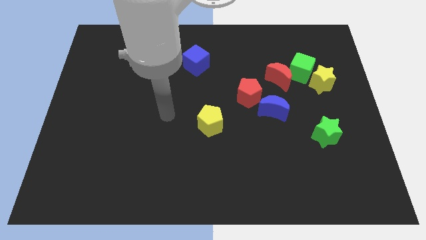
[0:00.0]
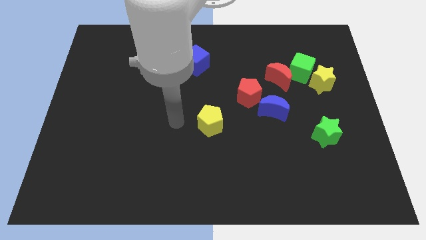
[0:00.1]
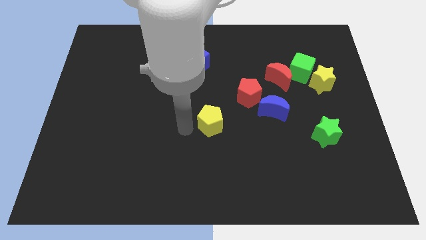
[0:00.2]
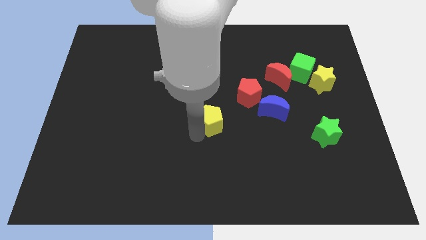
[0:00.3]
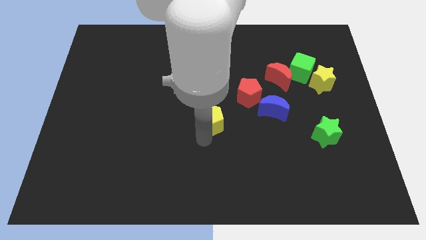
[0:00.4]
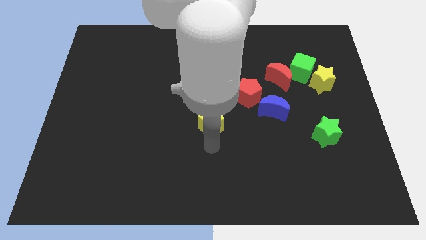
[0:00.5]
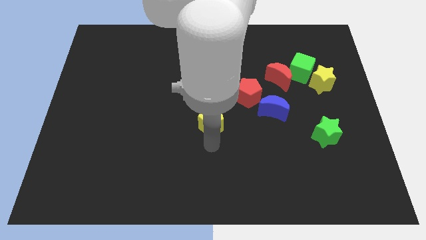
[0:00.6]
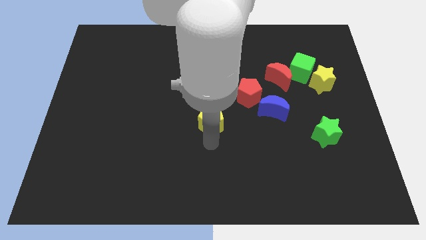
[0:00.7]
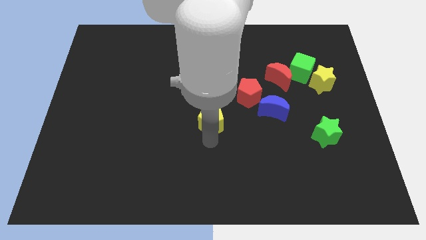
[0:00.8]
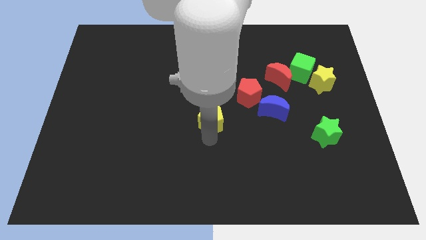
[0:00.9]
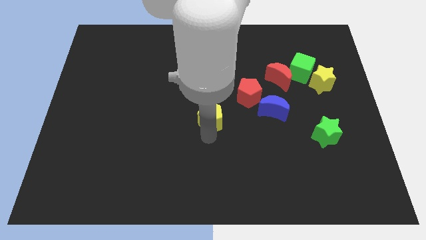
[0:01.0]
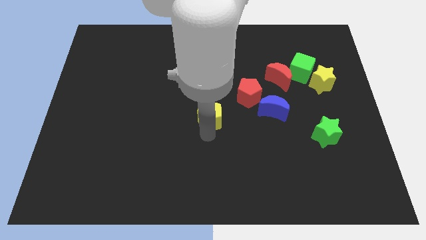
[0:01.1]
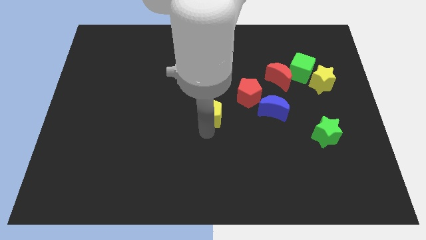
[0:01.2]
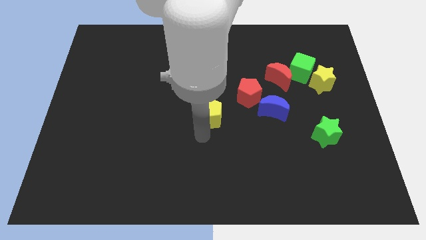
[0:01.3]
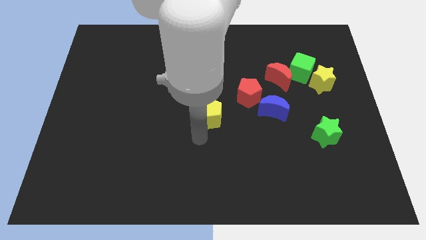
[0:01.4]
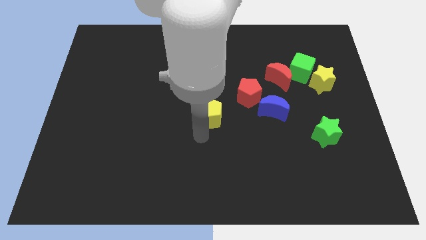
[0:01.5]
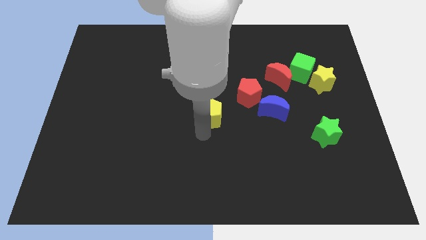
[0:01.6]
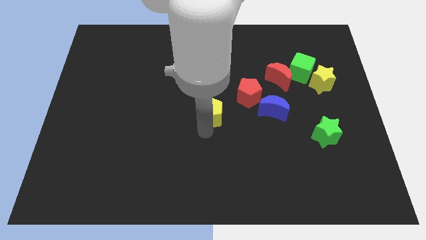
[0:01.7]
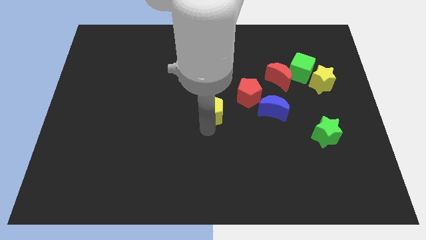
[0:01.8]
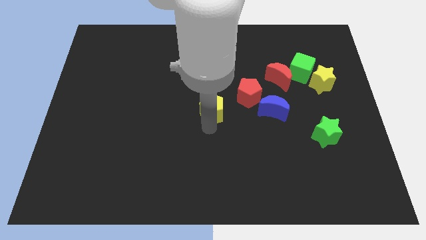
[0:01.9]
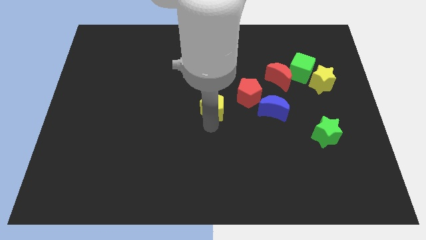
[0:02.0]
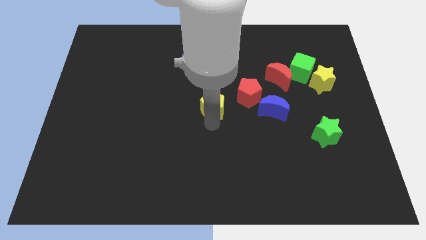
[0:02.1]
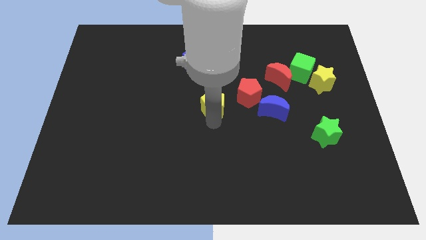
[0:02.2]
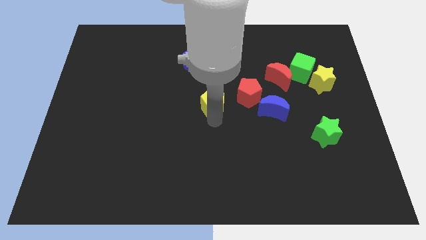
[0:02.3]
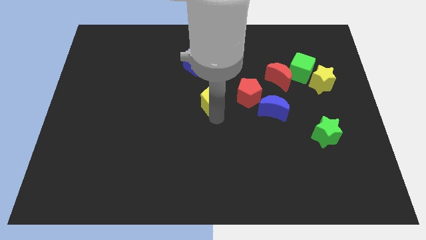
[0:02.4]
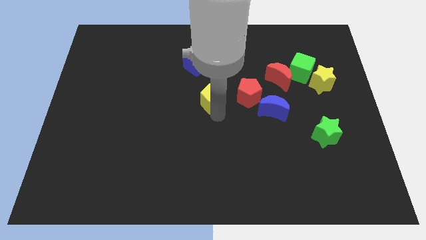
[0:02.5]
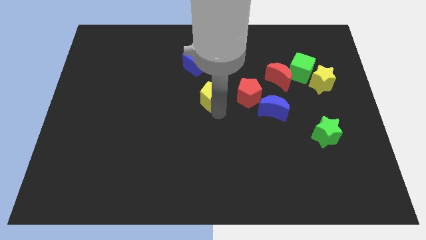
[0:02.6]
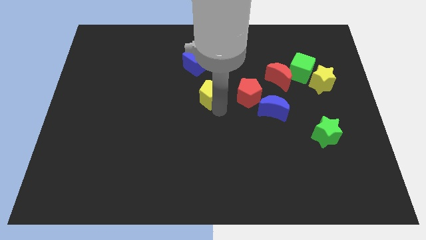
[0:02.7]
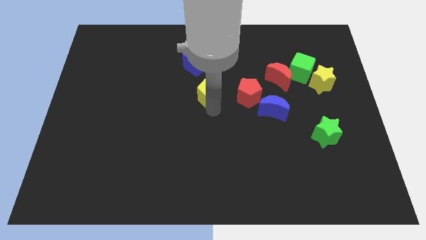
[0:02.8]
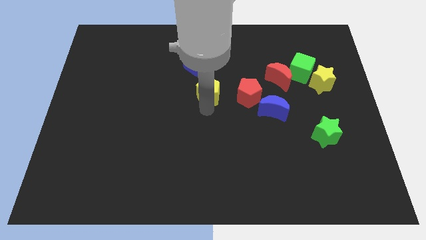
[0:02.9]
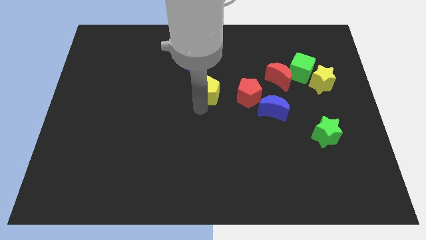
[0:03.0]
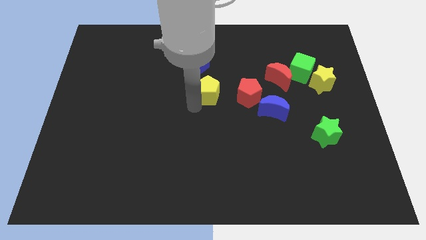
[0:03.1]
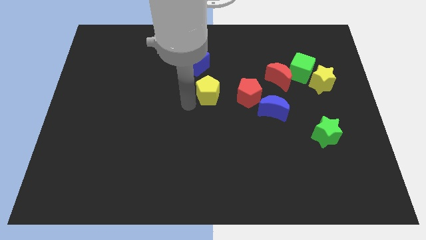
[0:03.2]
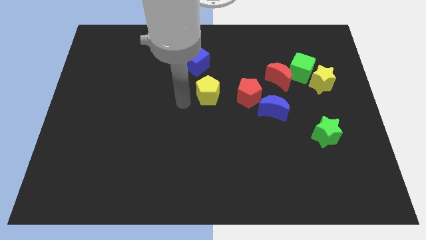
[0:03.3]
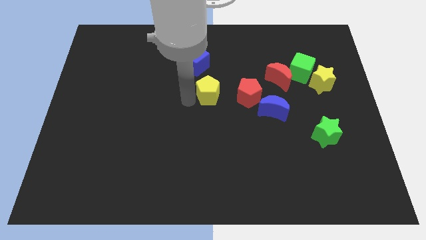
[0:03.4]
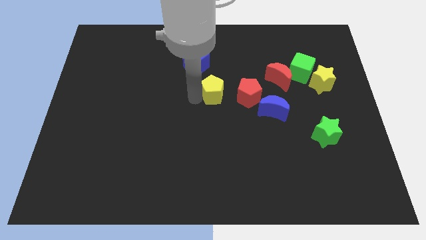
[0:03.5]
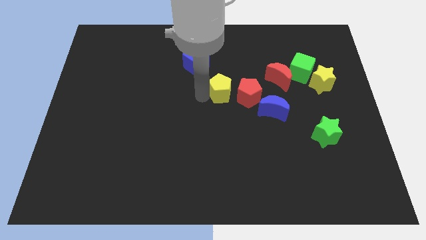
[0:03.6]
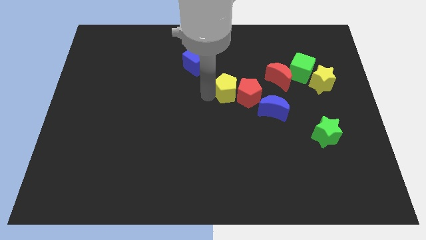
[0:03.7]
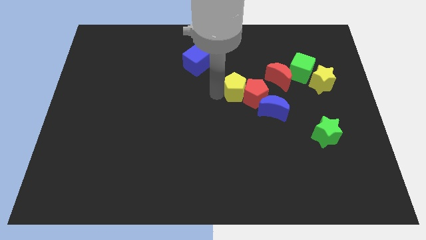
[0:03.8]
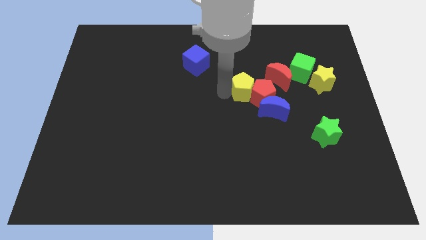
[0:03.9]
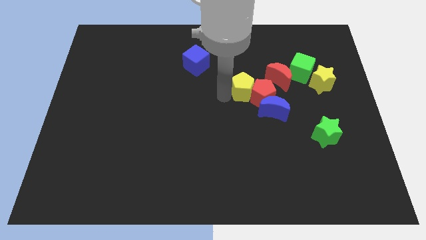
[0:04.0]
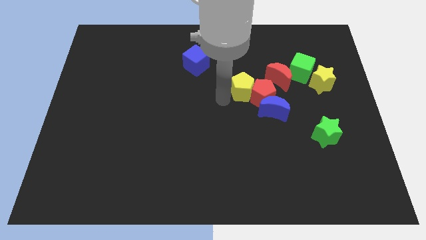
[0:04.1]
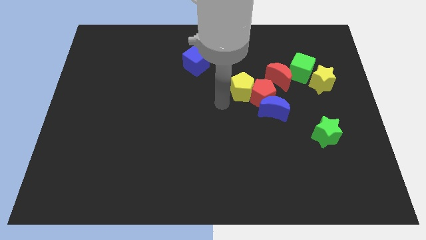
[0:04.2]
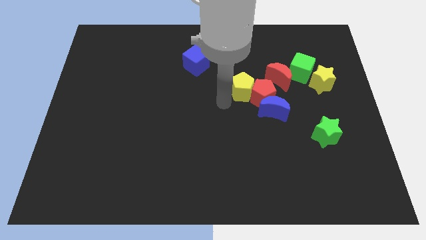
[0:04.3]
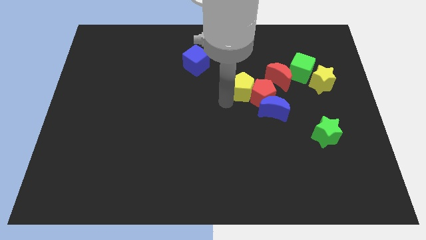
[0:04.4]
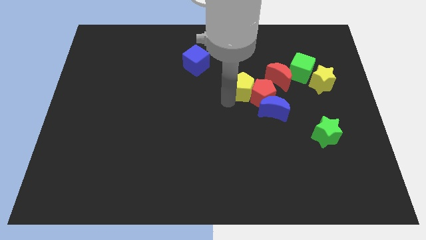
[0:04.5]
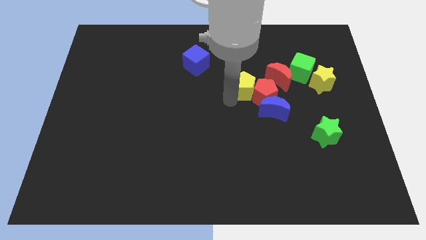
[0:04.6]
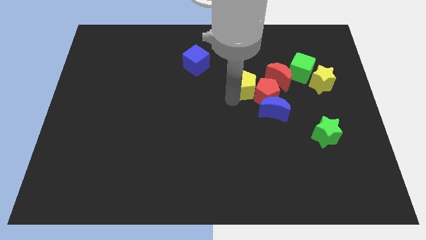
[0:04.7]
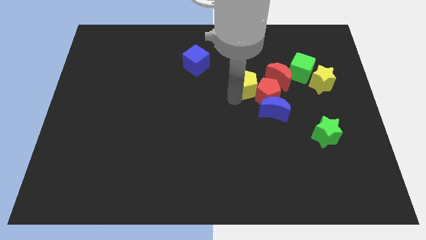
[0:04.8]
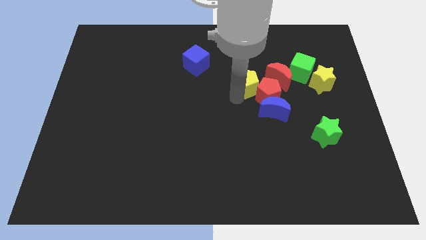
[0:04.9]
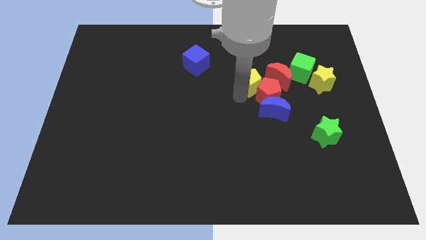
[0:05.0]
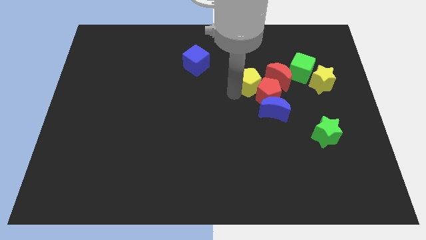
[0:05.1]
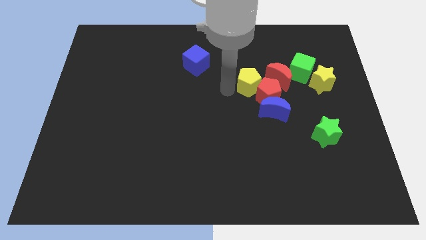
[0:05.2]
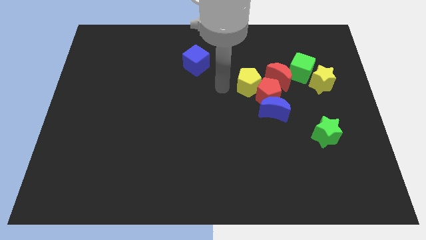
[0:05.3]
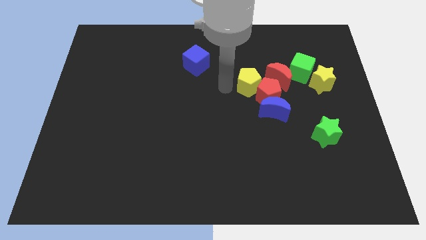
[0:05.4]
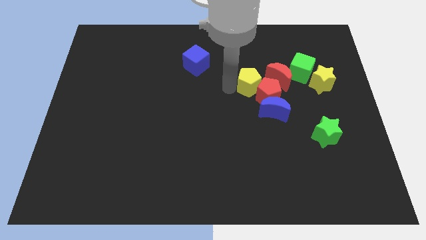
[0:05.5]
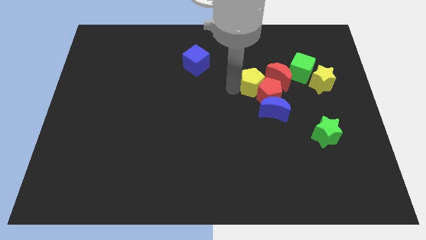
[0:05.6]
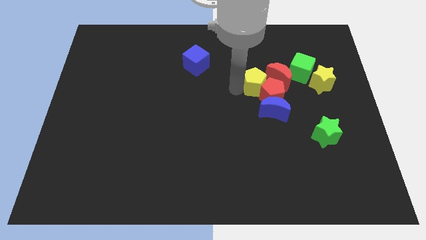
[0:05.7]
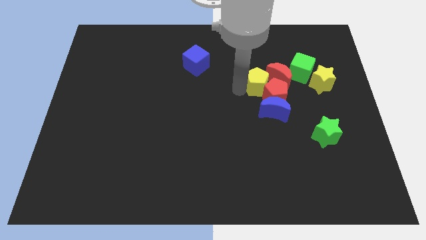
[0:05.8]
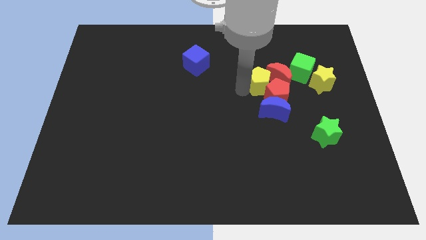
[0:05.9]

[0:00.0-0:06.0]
slide the yellow pentagon to the left of the yellow star

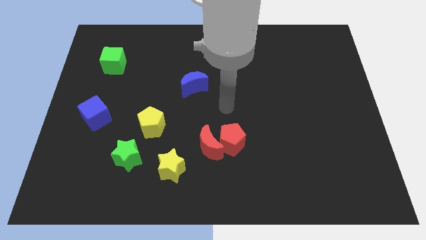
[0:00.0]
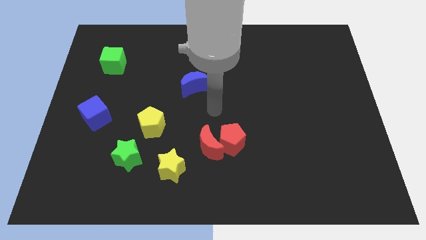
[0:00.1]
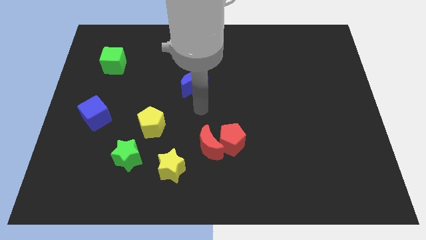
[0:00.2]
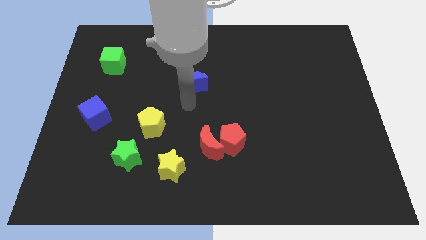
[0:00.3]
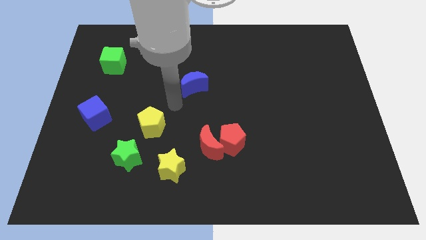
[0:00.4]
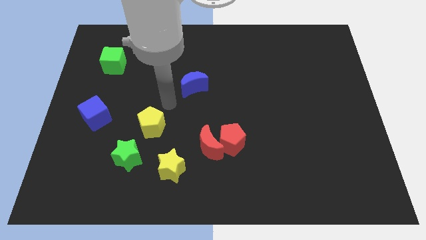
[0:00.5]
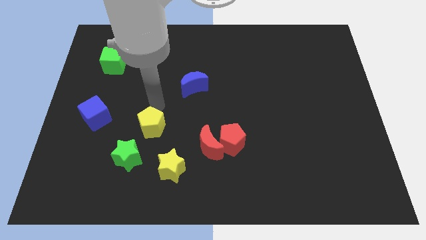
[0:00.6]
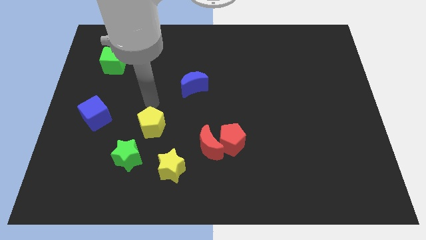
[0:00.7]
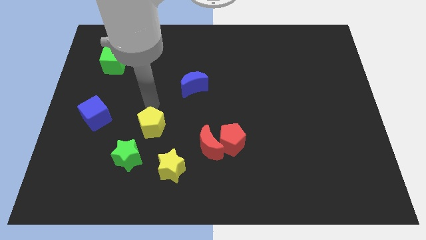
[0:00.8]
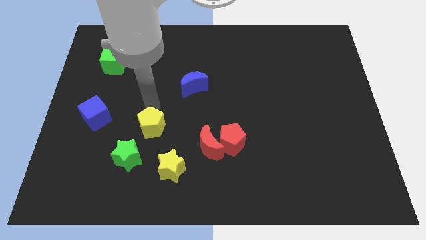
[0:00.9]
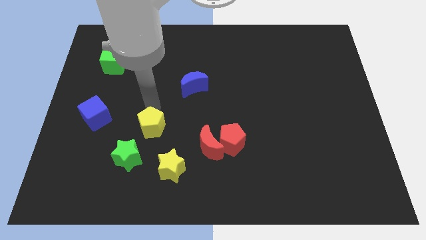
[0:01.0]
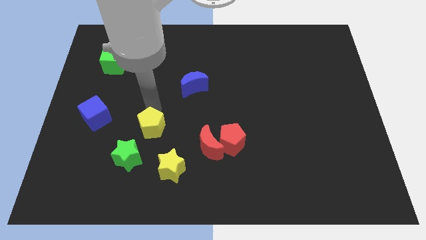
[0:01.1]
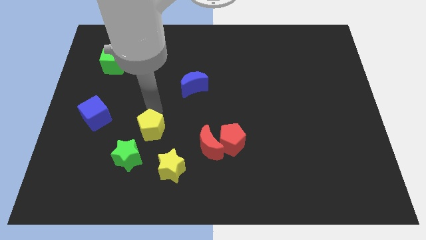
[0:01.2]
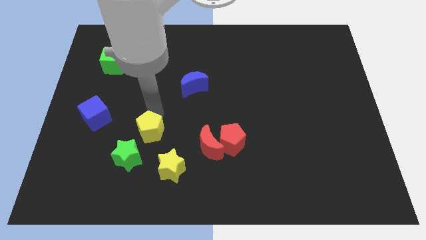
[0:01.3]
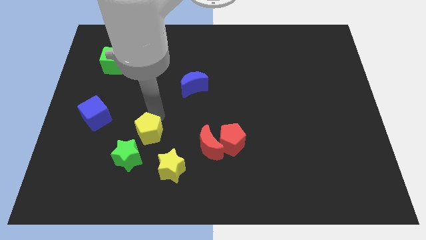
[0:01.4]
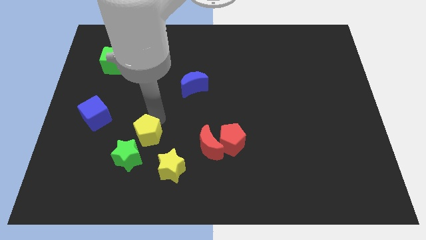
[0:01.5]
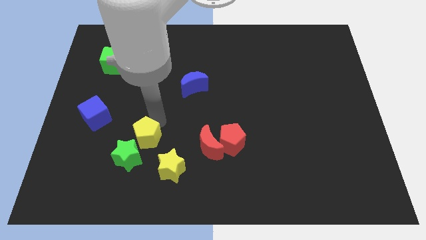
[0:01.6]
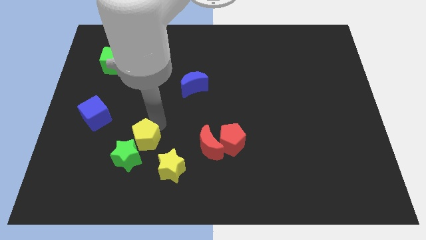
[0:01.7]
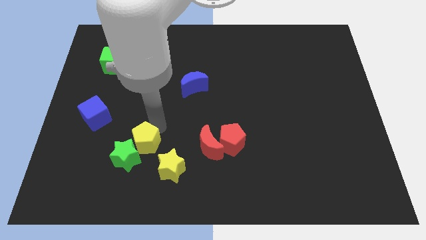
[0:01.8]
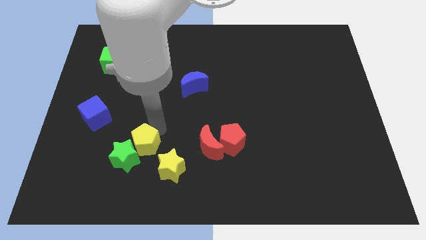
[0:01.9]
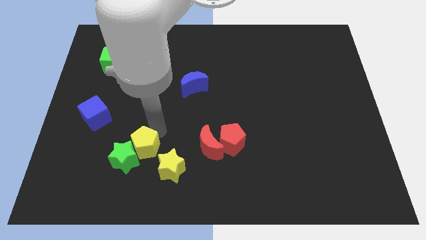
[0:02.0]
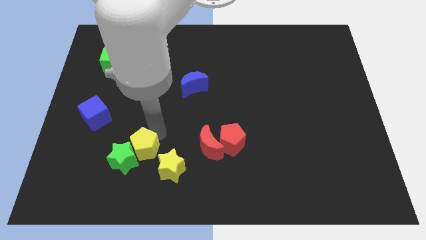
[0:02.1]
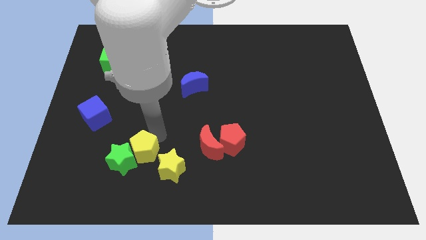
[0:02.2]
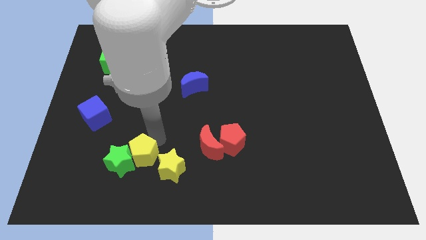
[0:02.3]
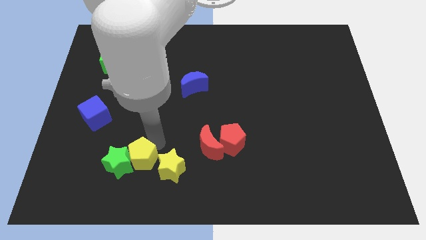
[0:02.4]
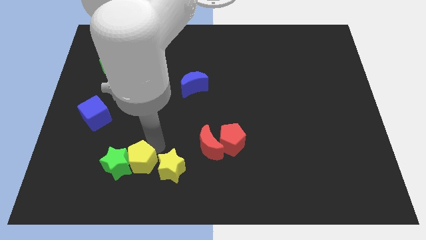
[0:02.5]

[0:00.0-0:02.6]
slide the yellow pentagon diagonally down and to the right of the green star
